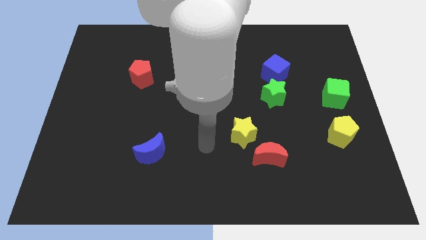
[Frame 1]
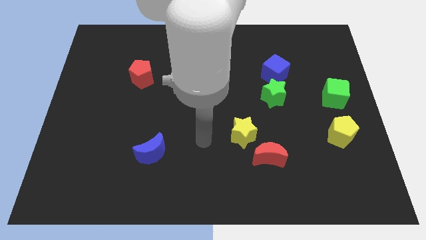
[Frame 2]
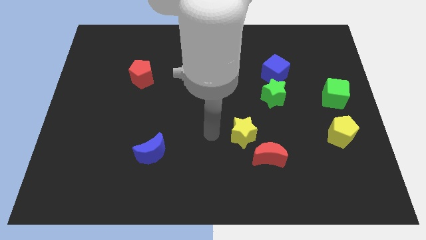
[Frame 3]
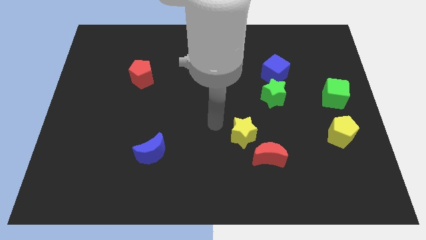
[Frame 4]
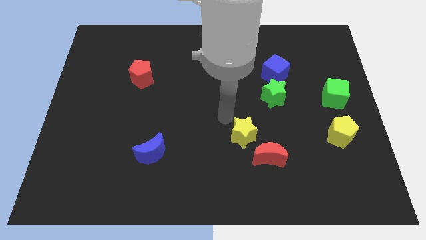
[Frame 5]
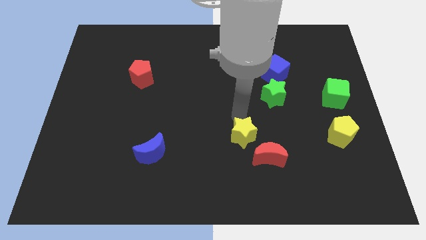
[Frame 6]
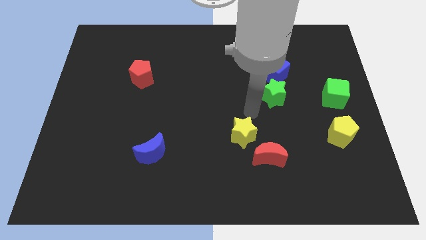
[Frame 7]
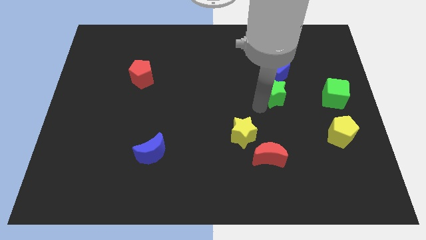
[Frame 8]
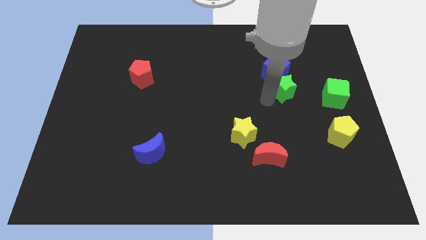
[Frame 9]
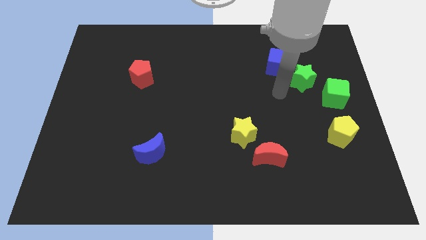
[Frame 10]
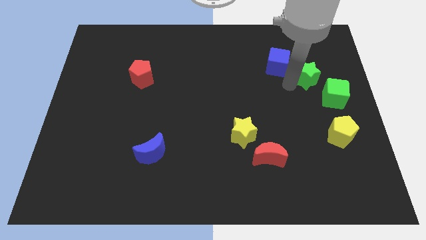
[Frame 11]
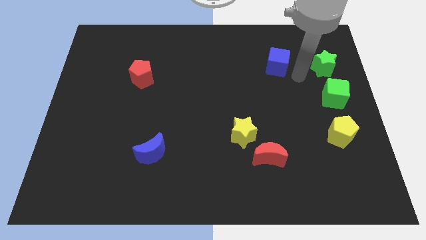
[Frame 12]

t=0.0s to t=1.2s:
move the blue cube away from the green star

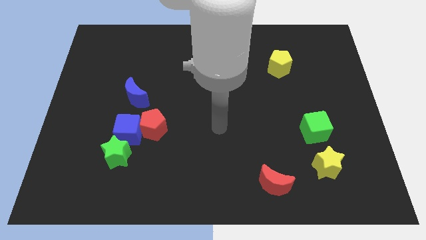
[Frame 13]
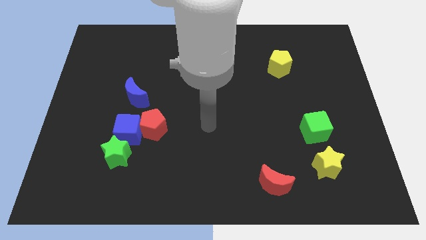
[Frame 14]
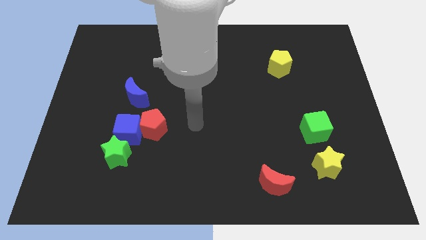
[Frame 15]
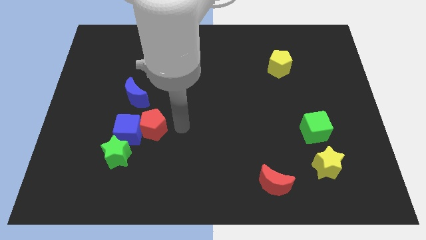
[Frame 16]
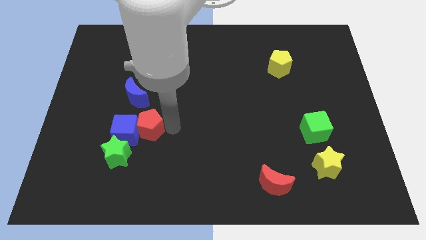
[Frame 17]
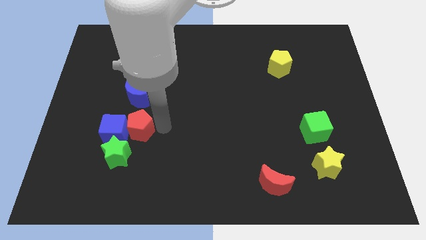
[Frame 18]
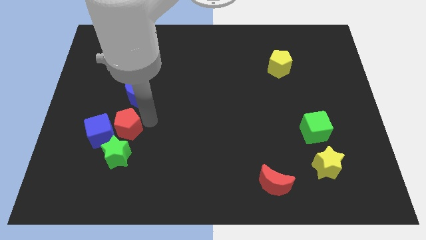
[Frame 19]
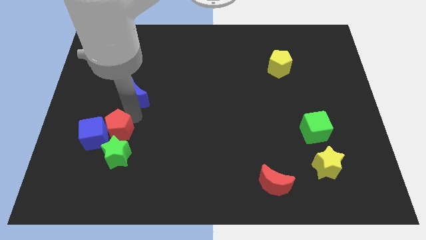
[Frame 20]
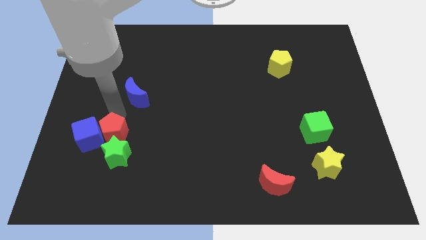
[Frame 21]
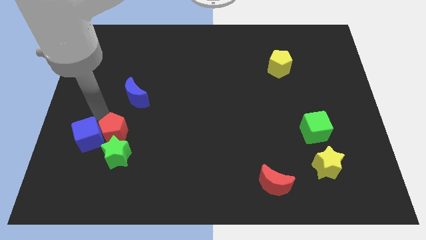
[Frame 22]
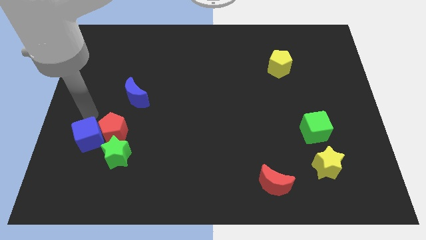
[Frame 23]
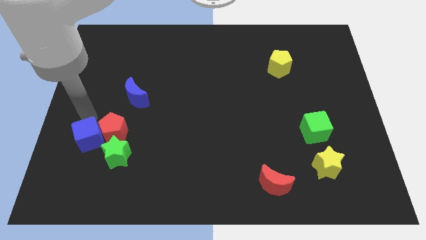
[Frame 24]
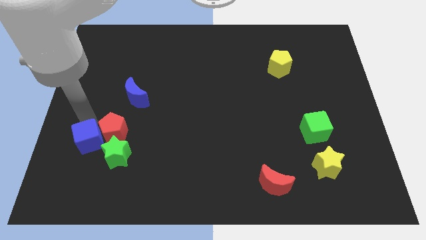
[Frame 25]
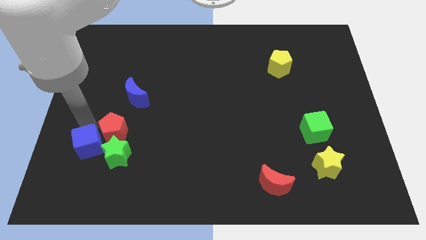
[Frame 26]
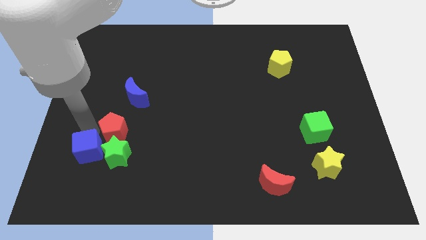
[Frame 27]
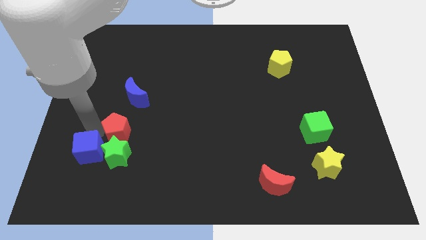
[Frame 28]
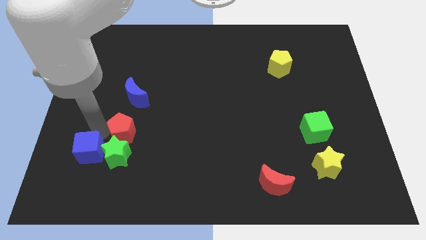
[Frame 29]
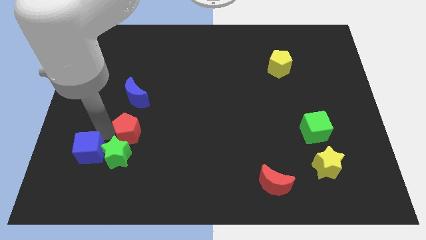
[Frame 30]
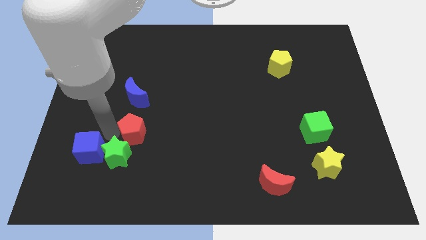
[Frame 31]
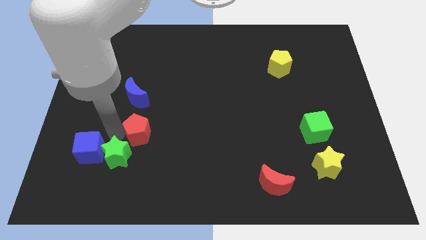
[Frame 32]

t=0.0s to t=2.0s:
separate the blue cube from the clump

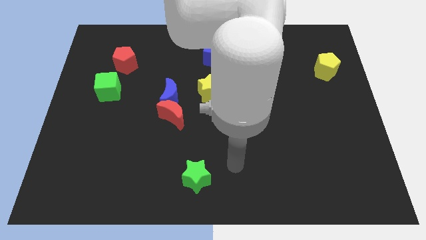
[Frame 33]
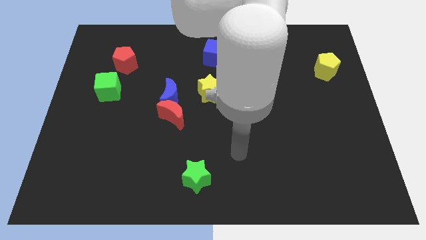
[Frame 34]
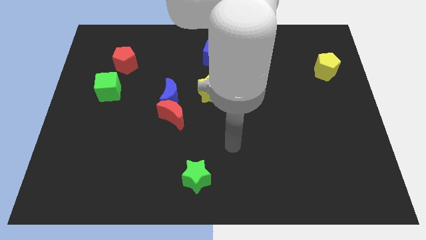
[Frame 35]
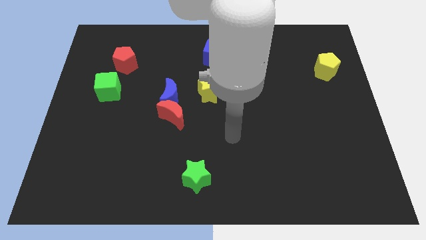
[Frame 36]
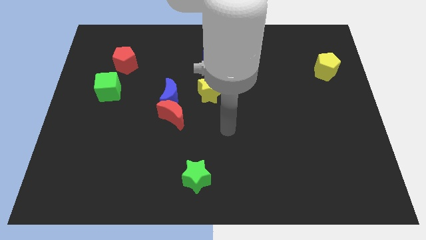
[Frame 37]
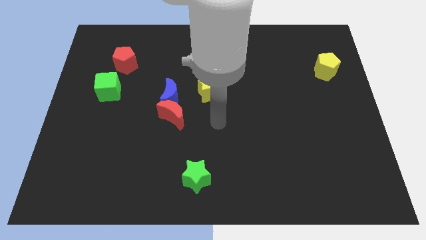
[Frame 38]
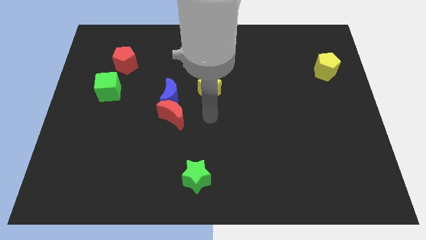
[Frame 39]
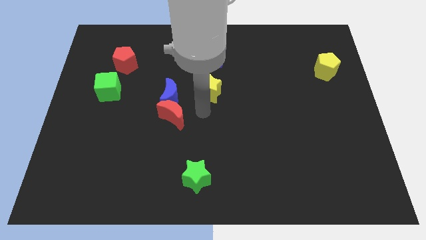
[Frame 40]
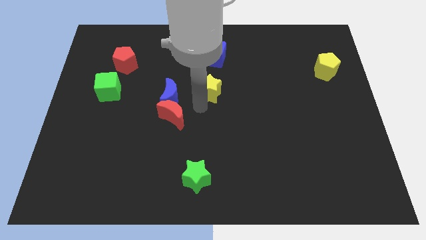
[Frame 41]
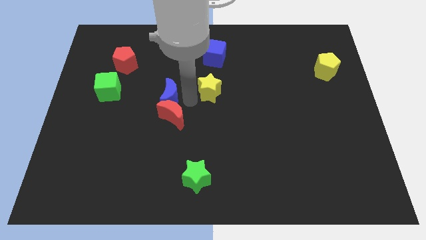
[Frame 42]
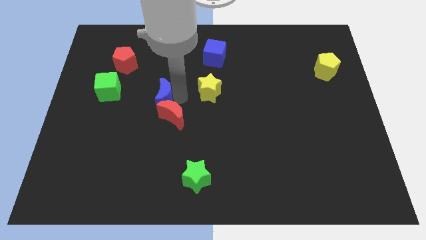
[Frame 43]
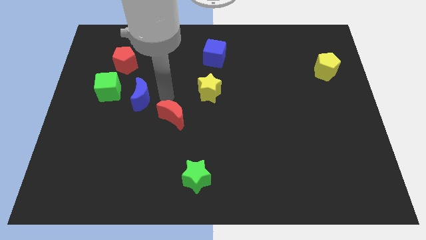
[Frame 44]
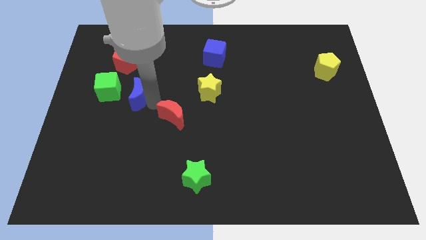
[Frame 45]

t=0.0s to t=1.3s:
move the red moon away from the blue moon

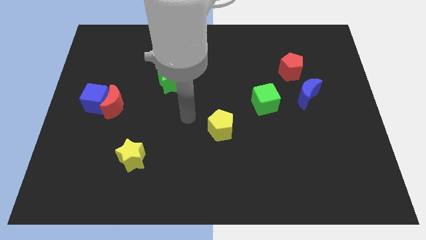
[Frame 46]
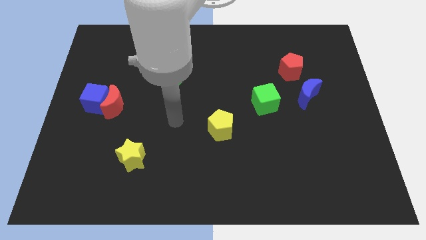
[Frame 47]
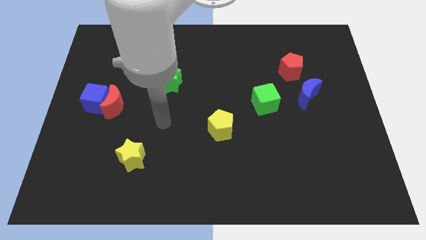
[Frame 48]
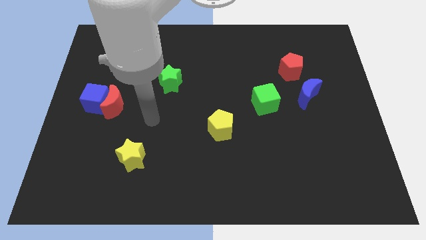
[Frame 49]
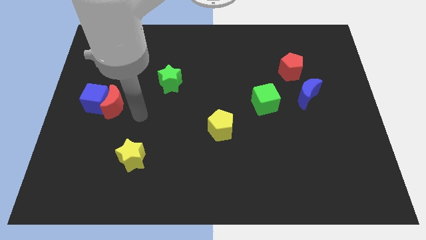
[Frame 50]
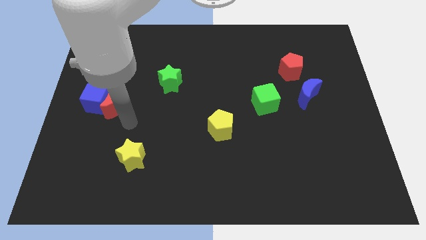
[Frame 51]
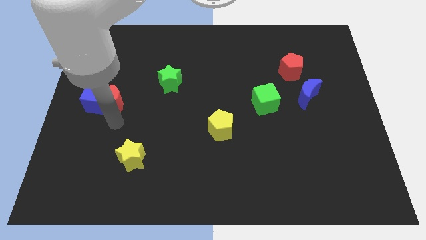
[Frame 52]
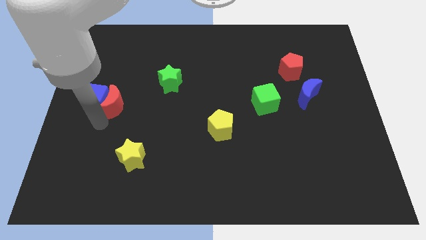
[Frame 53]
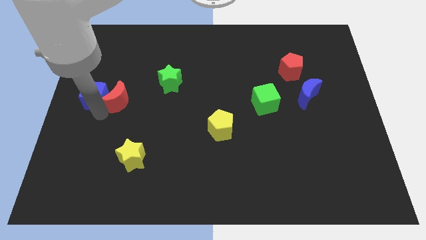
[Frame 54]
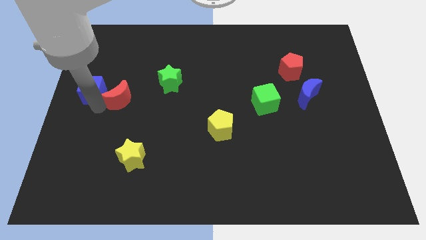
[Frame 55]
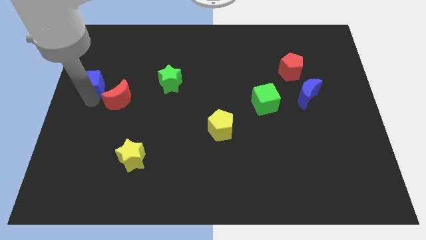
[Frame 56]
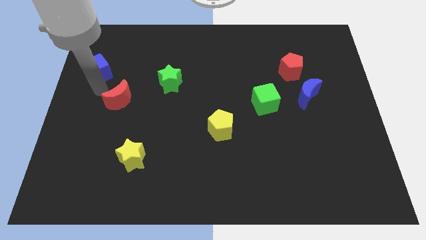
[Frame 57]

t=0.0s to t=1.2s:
move the red moon away from the blue cube

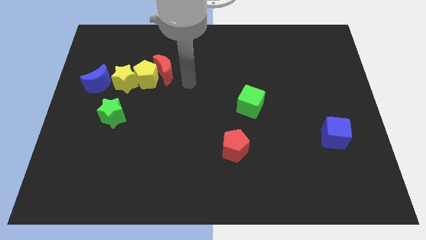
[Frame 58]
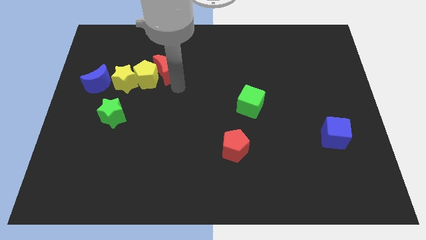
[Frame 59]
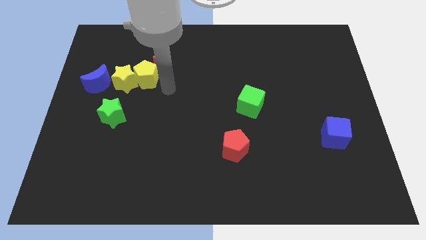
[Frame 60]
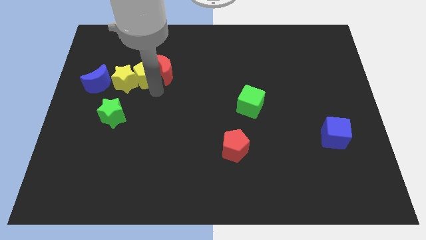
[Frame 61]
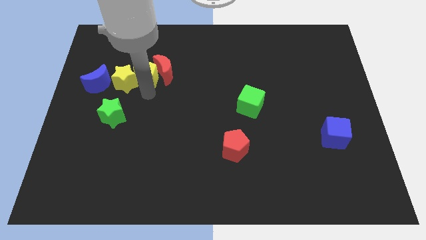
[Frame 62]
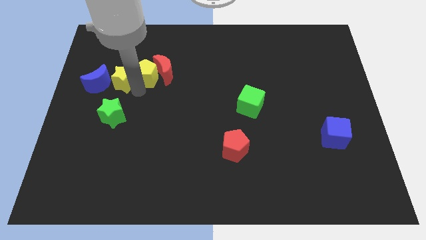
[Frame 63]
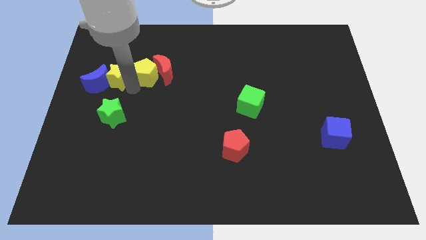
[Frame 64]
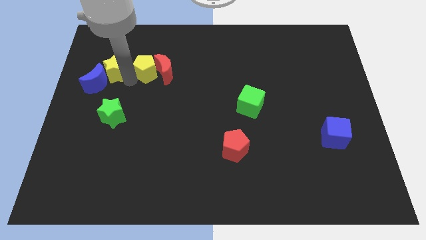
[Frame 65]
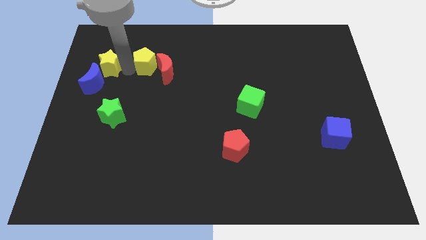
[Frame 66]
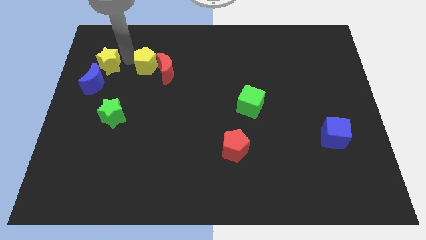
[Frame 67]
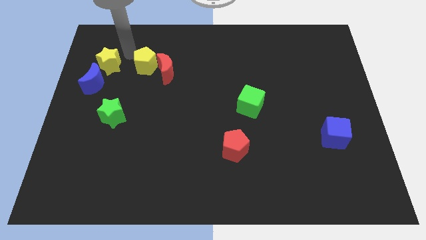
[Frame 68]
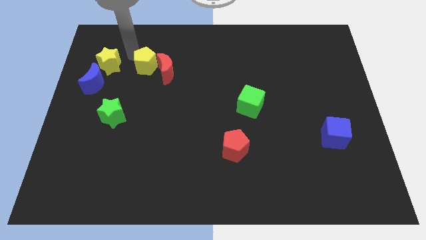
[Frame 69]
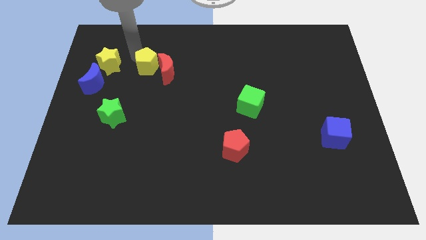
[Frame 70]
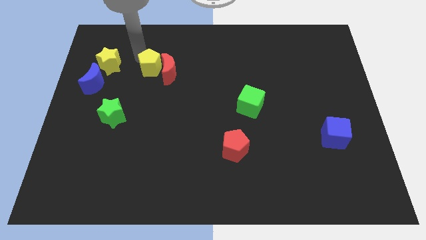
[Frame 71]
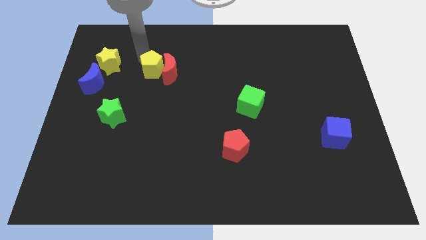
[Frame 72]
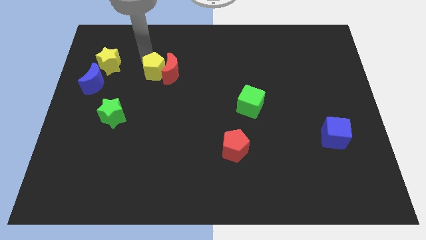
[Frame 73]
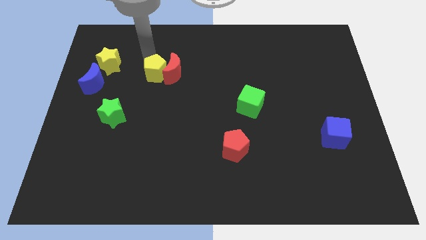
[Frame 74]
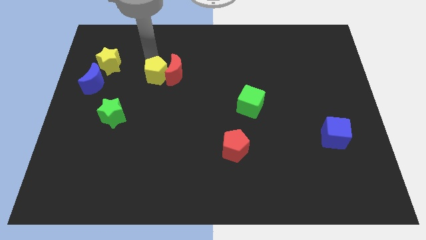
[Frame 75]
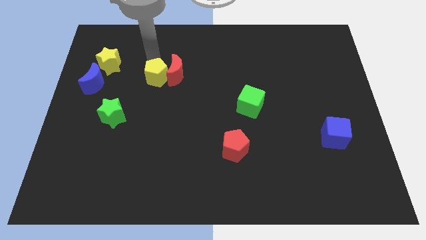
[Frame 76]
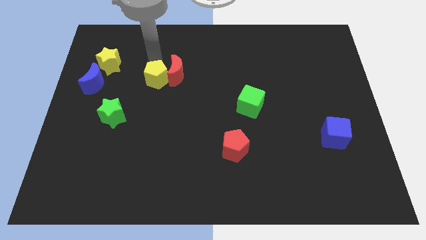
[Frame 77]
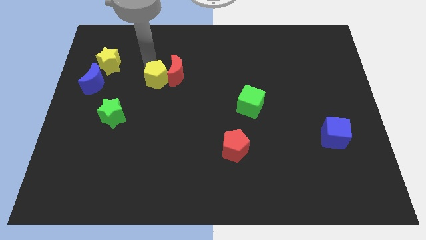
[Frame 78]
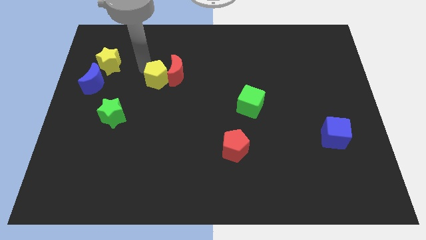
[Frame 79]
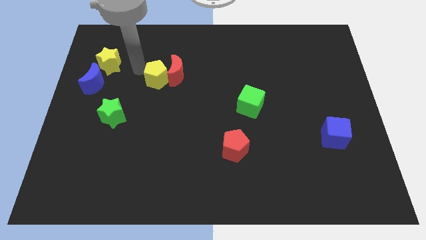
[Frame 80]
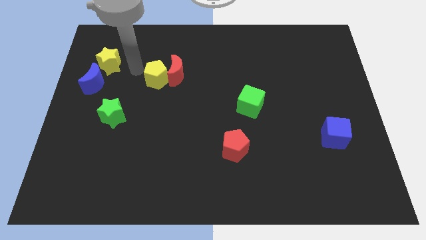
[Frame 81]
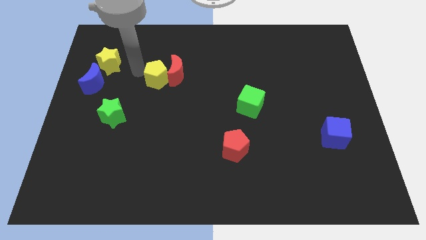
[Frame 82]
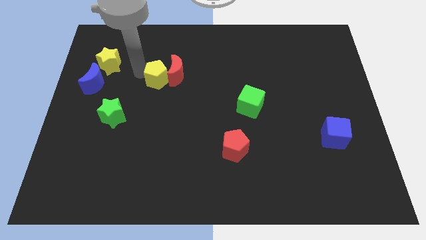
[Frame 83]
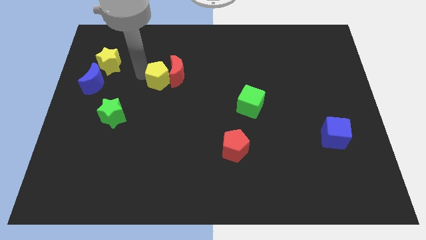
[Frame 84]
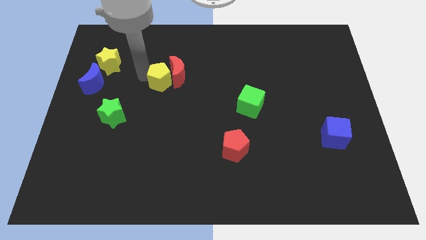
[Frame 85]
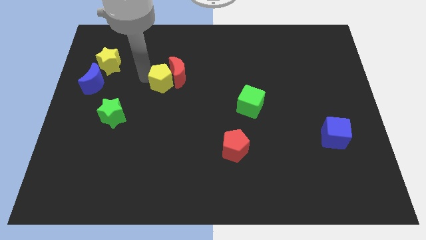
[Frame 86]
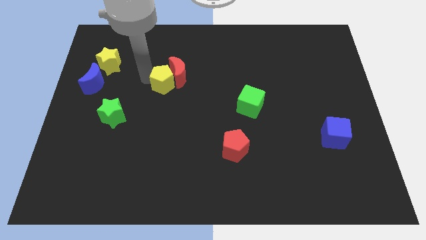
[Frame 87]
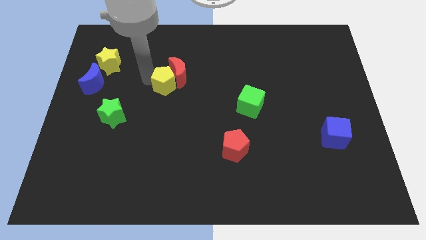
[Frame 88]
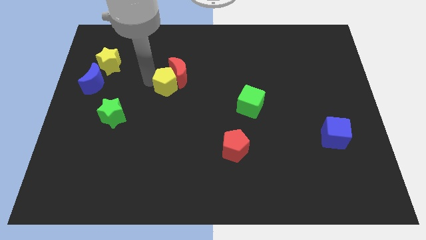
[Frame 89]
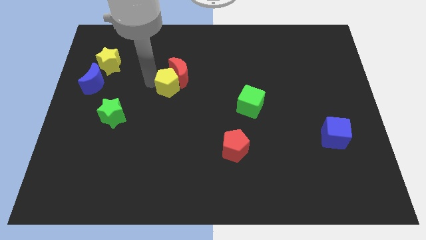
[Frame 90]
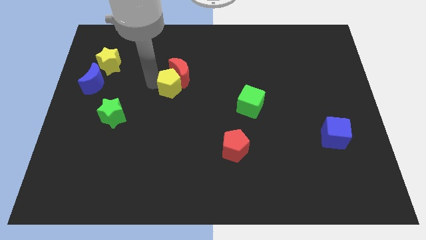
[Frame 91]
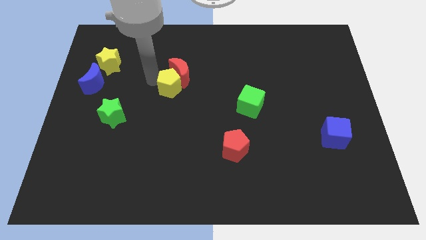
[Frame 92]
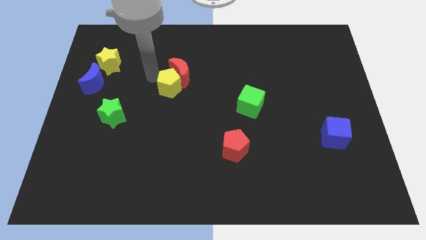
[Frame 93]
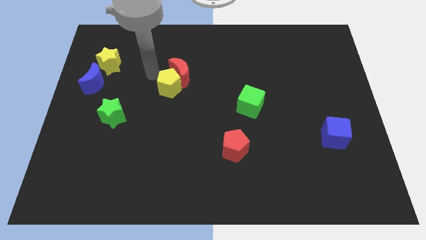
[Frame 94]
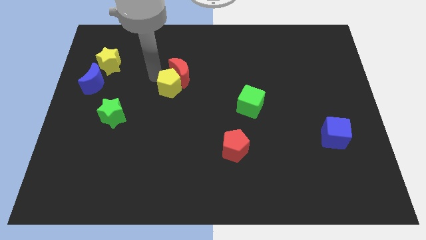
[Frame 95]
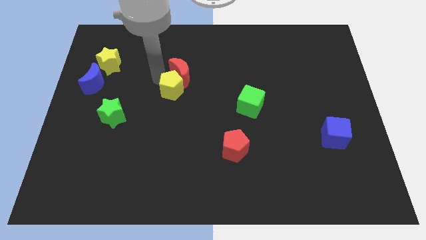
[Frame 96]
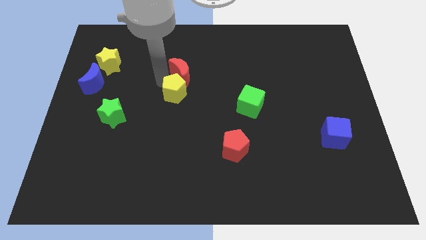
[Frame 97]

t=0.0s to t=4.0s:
pull the yellow pentagon apart from the red moon and yellow star
